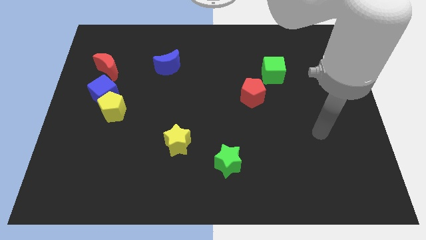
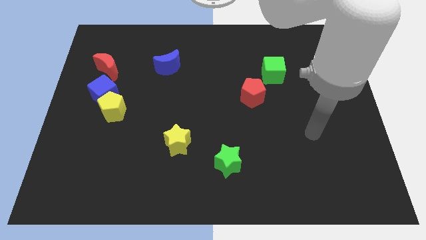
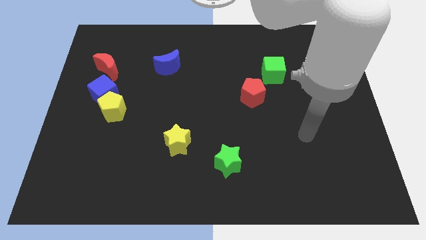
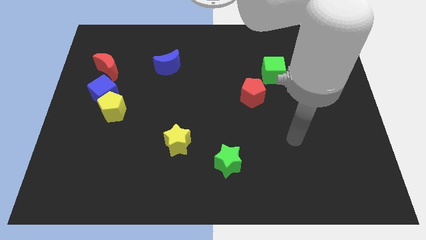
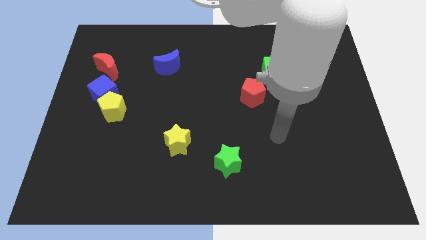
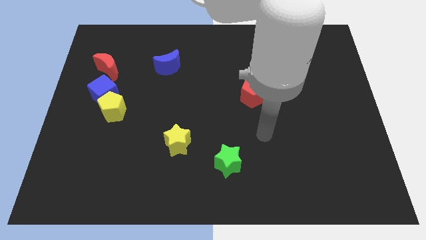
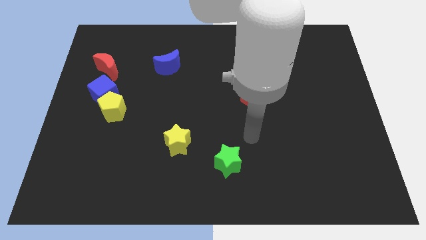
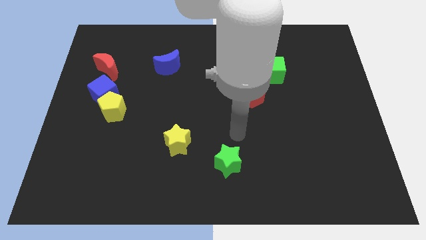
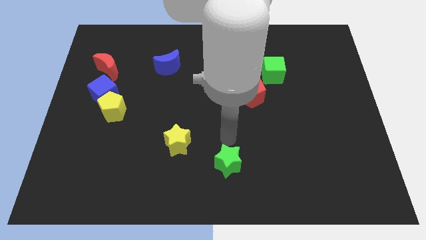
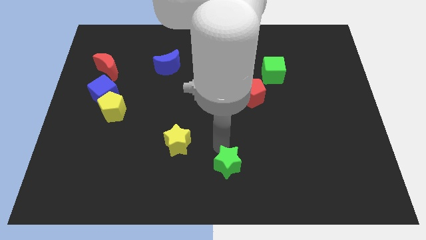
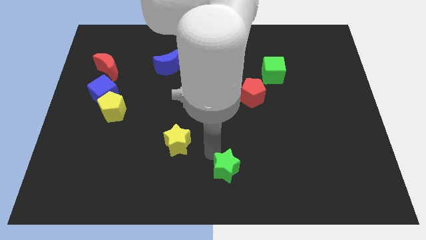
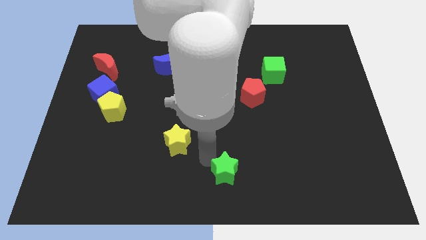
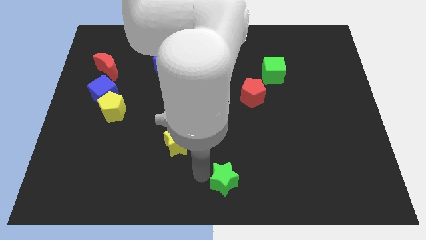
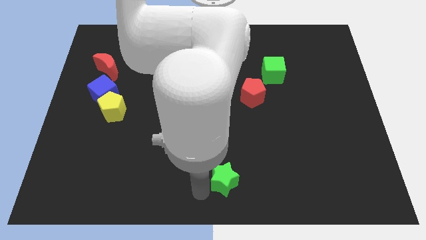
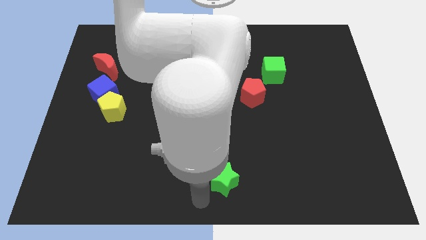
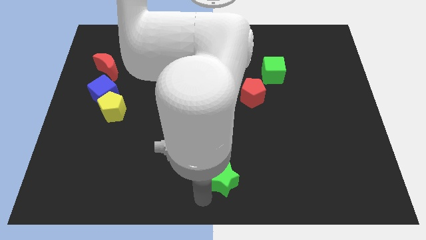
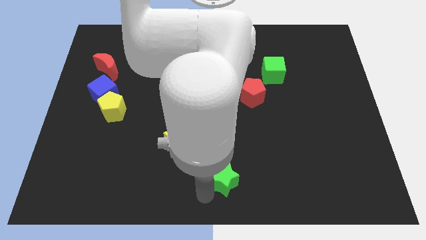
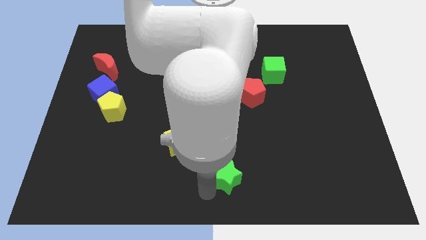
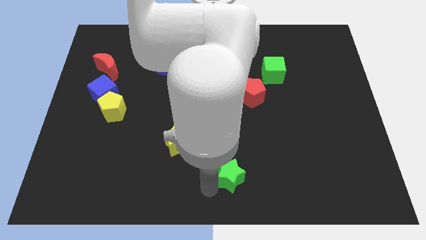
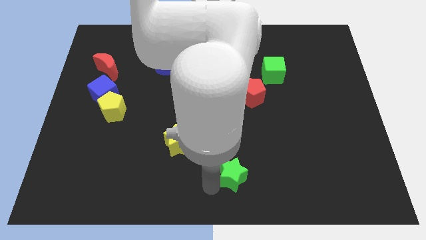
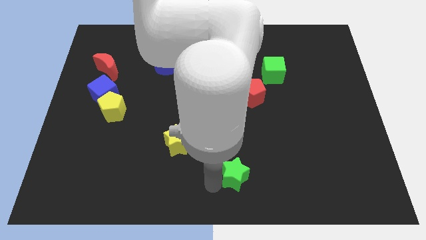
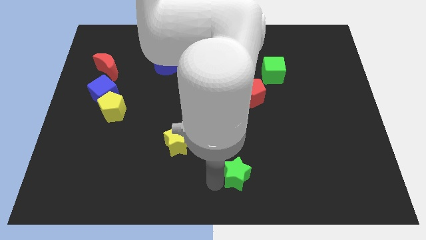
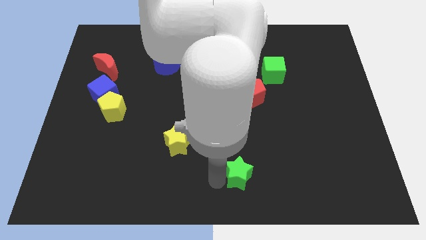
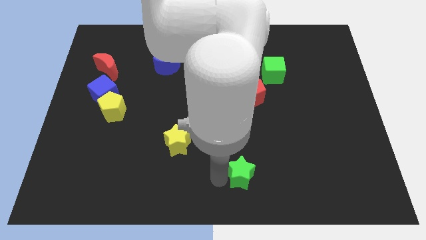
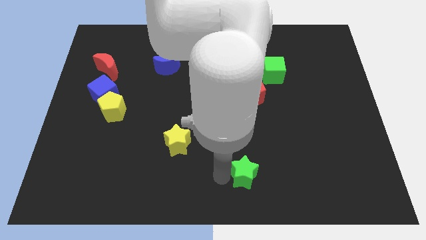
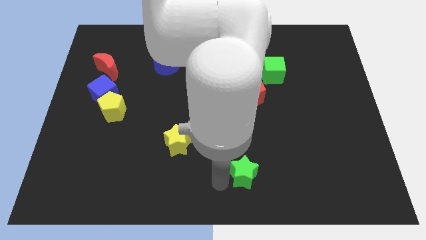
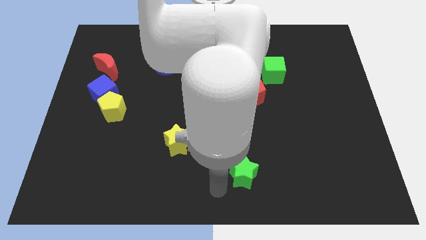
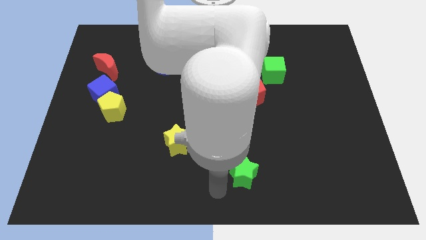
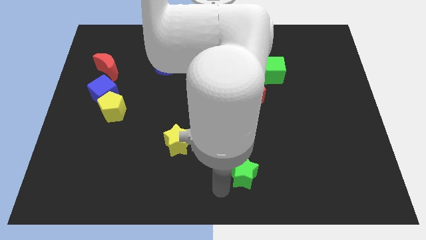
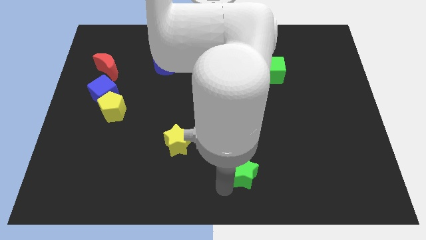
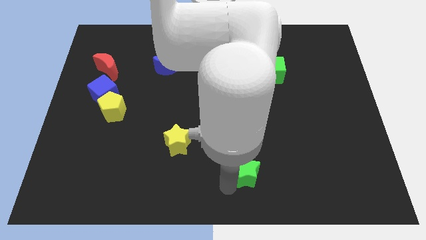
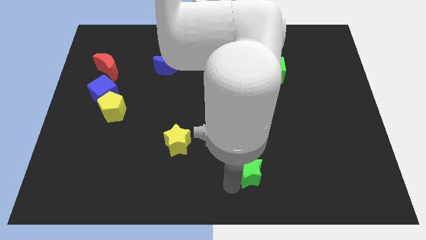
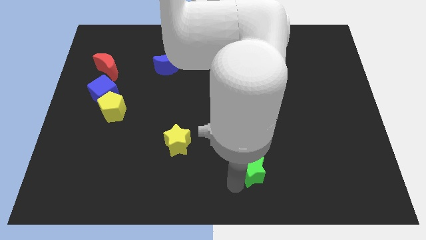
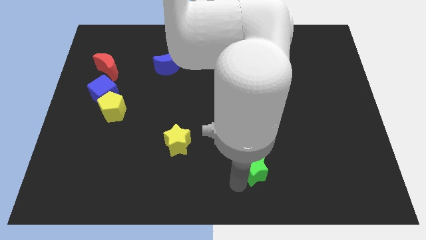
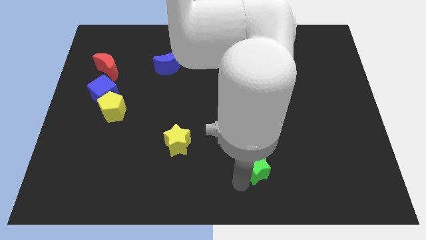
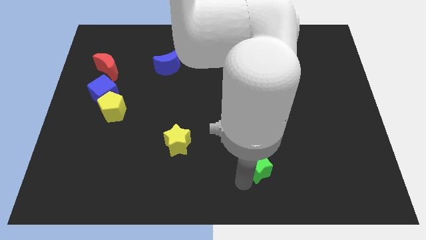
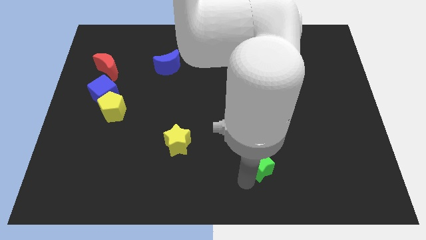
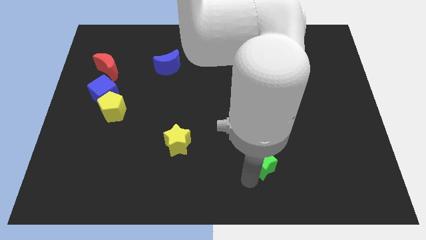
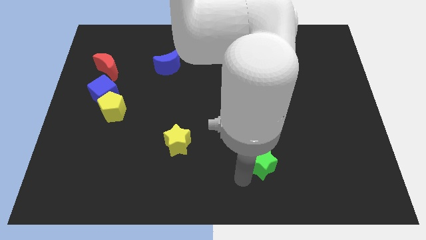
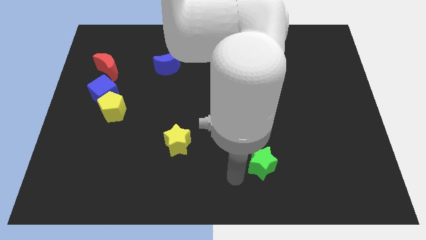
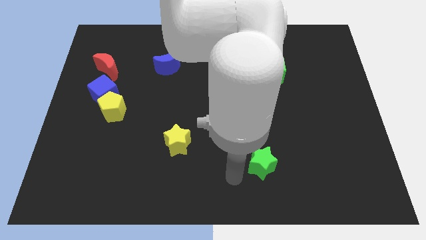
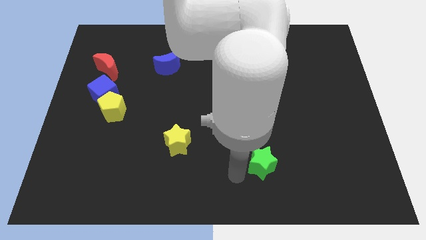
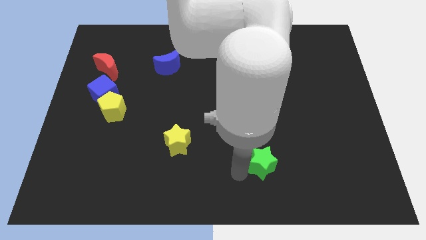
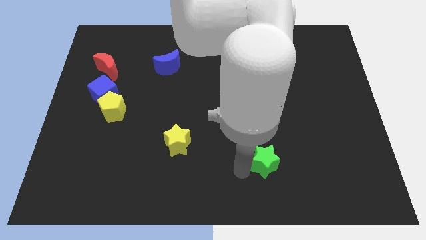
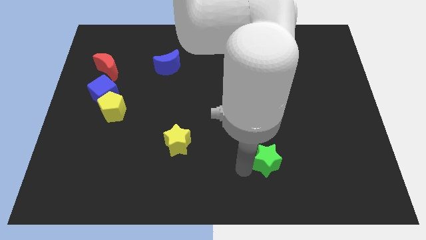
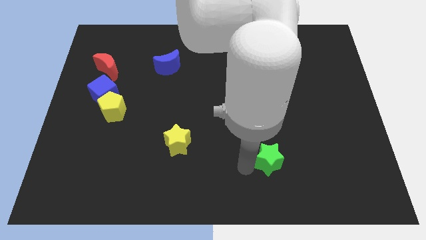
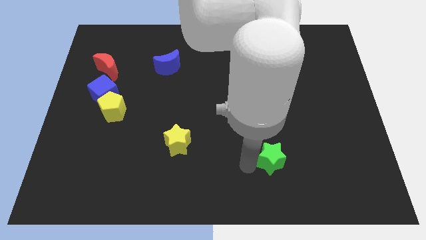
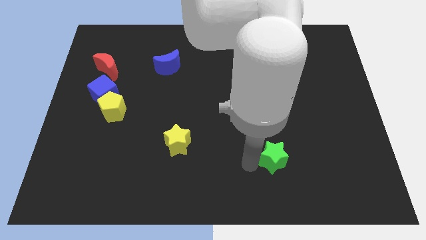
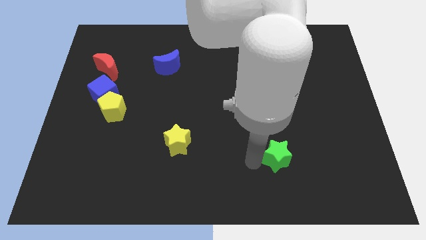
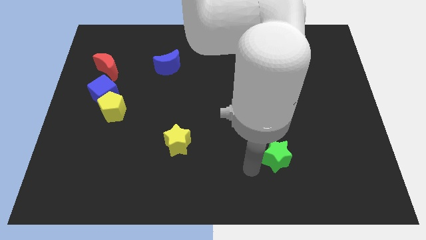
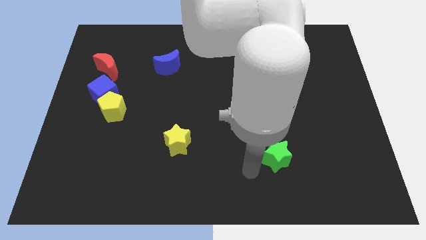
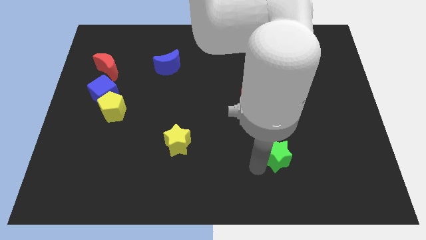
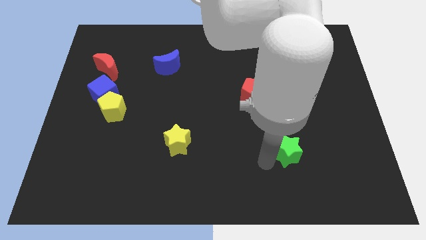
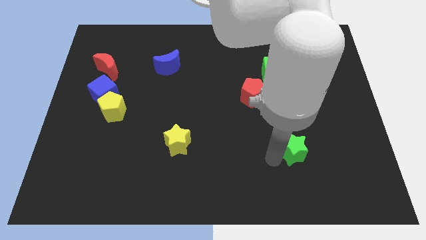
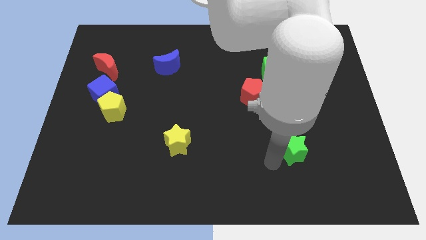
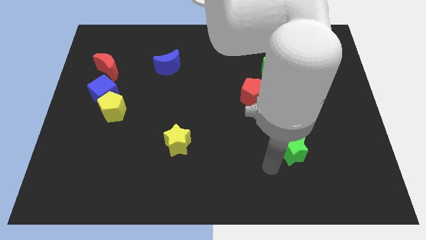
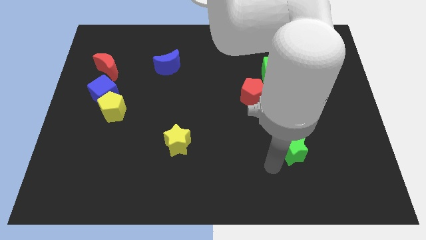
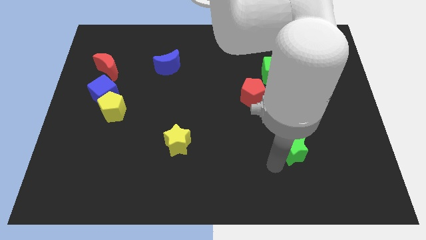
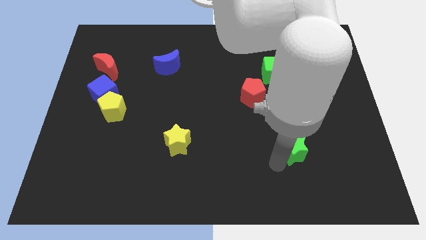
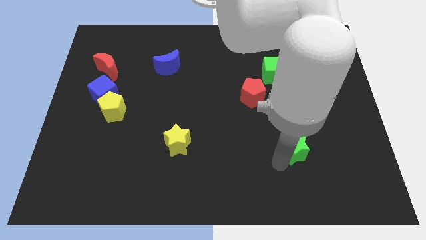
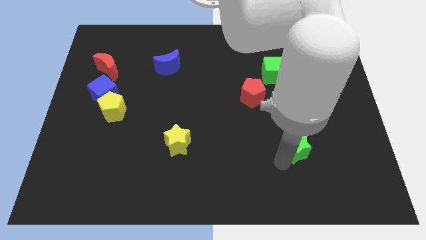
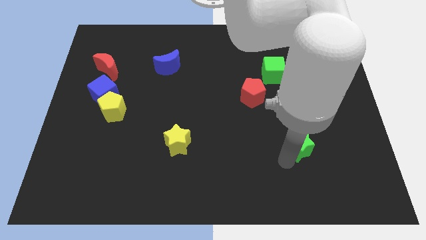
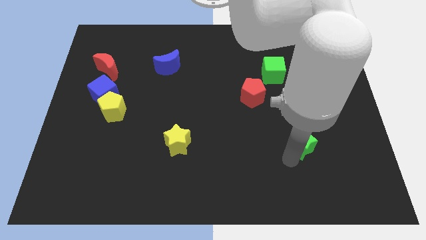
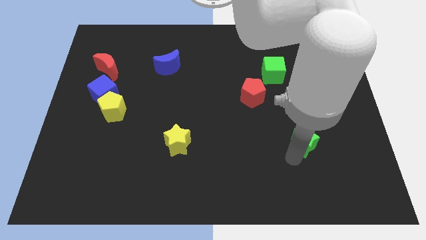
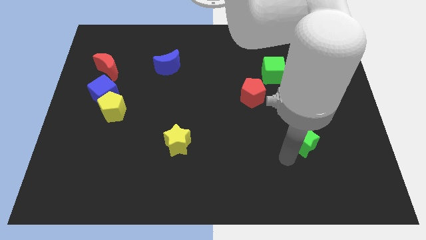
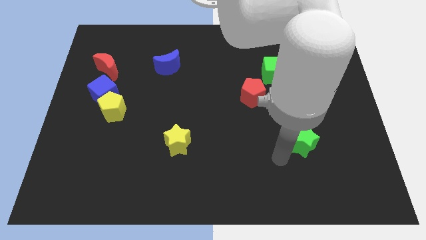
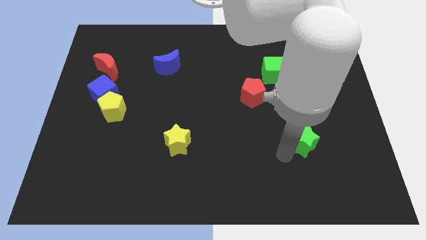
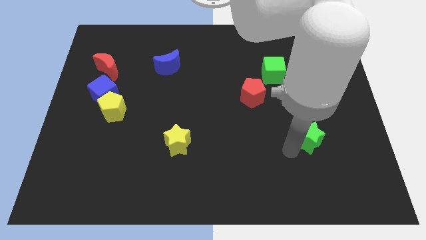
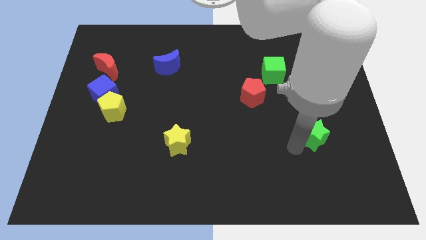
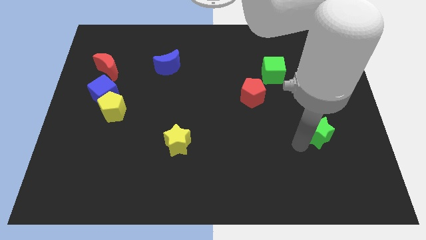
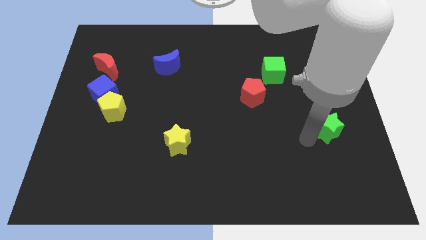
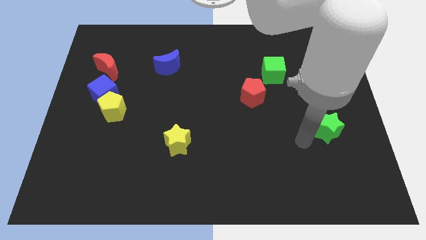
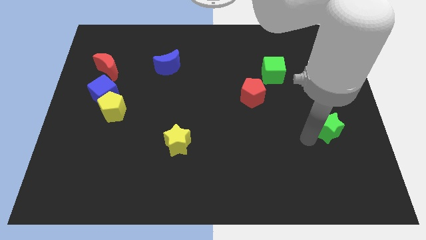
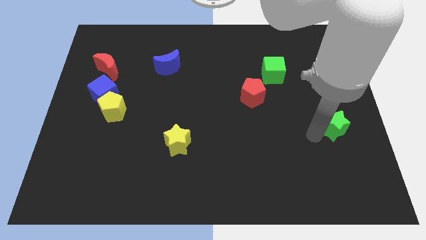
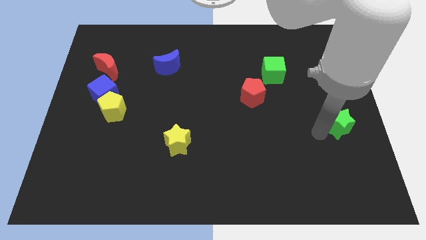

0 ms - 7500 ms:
slide the green star to the right side of the board
